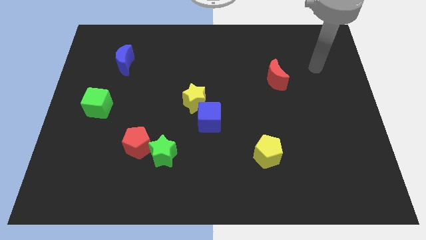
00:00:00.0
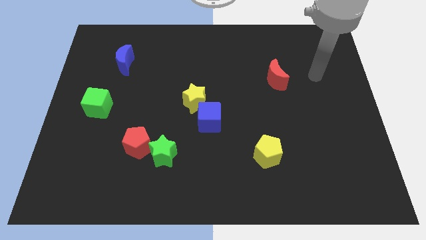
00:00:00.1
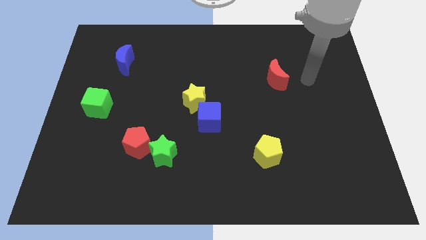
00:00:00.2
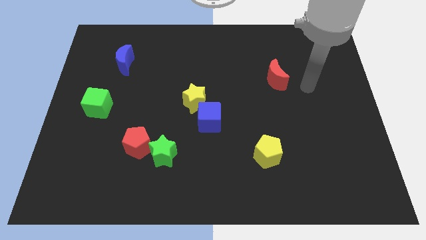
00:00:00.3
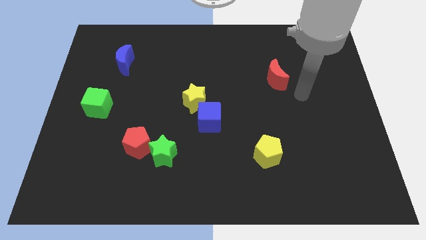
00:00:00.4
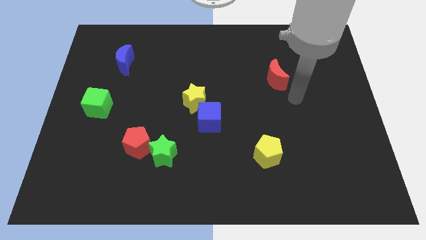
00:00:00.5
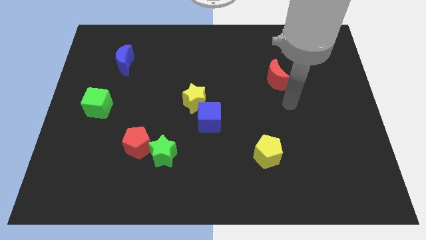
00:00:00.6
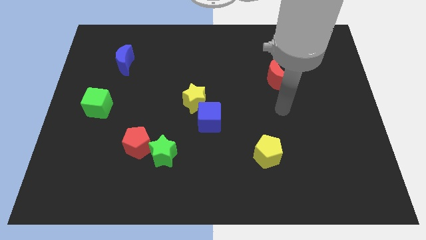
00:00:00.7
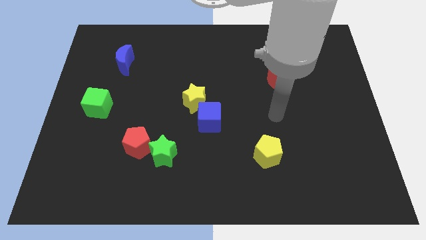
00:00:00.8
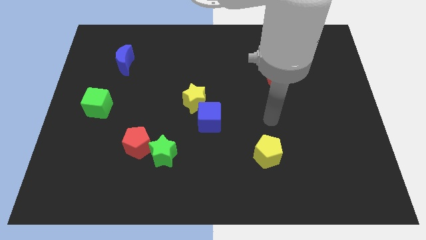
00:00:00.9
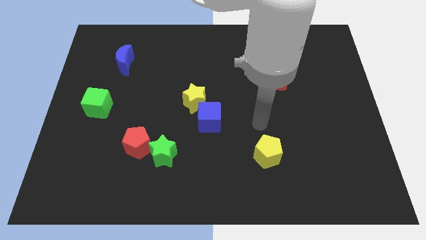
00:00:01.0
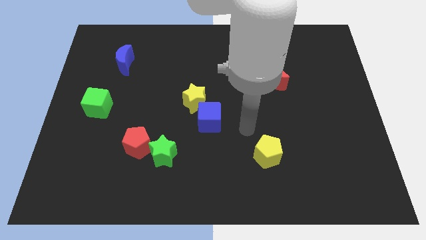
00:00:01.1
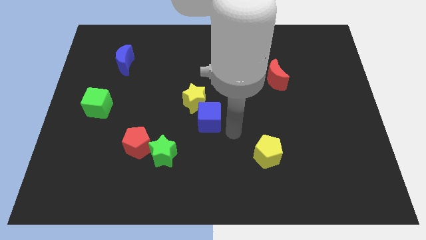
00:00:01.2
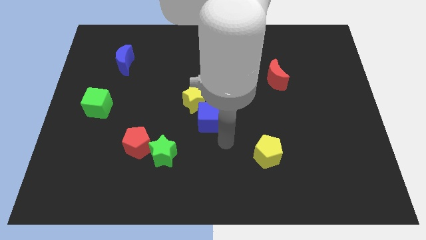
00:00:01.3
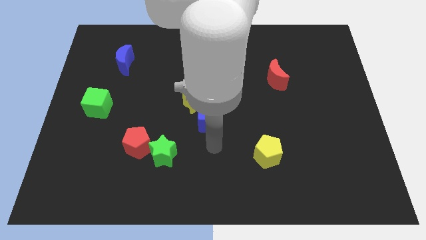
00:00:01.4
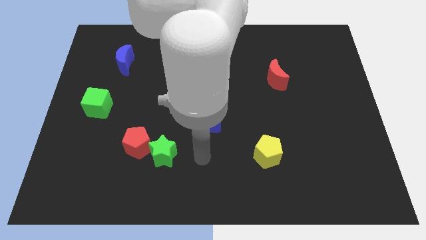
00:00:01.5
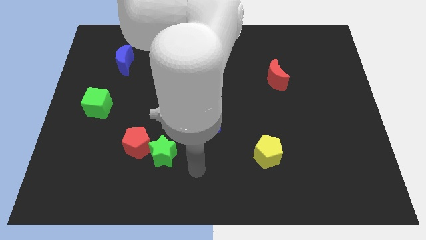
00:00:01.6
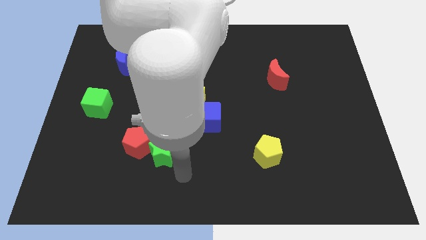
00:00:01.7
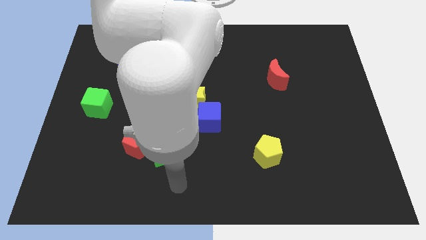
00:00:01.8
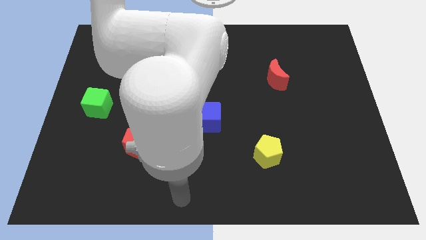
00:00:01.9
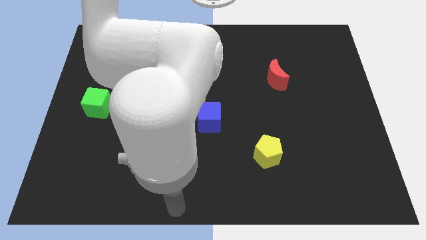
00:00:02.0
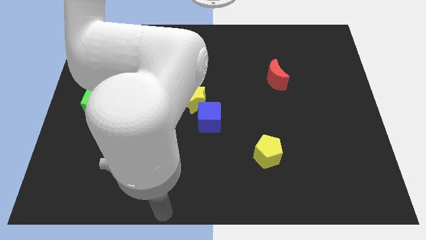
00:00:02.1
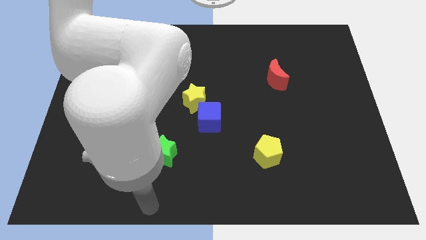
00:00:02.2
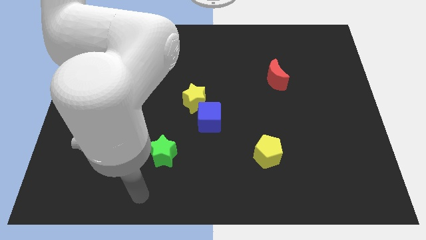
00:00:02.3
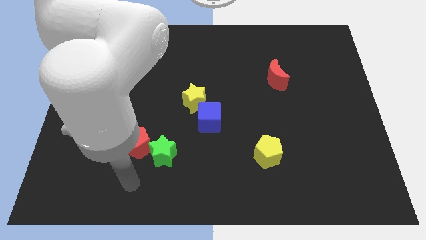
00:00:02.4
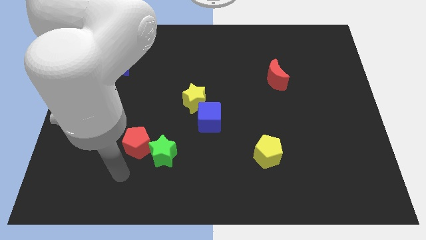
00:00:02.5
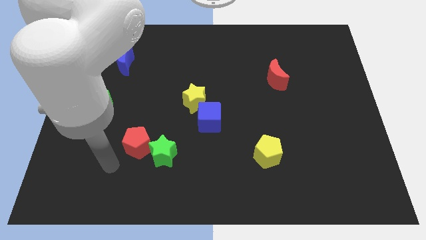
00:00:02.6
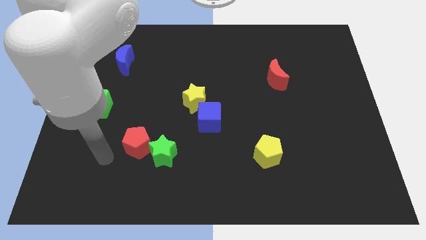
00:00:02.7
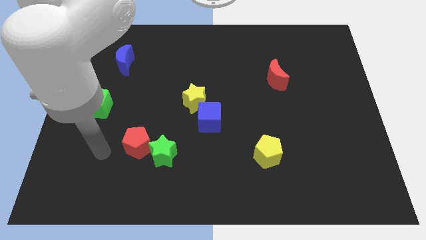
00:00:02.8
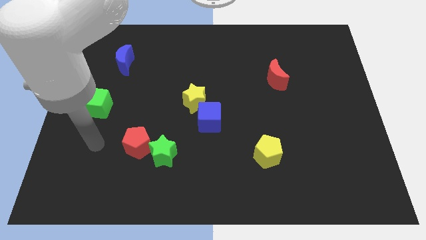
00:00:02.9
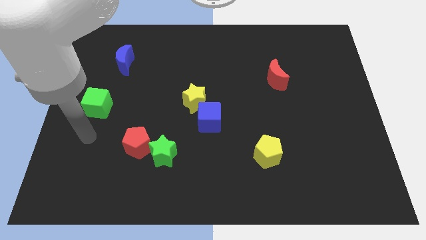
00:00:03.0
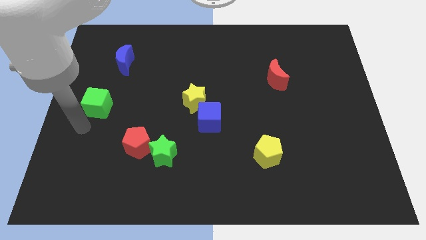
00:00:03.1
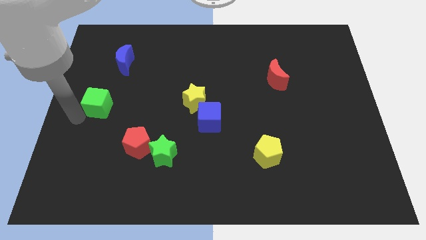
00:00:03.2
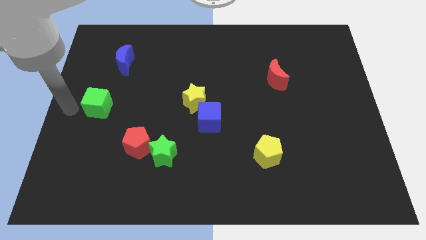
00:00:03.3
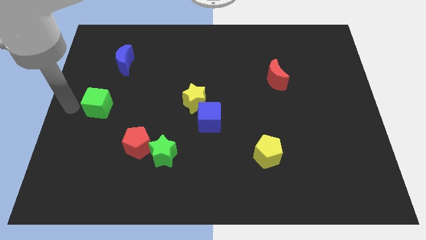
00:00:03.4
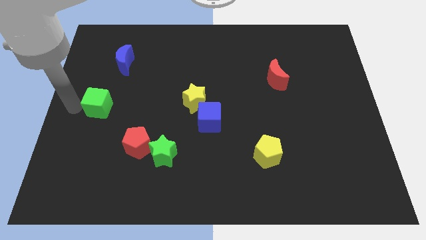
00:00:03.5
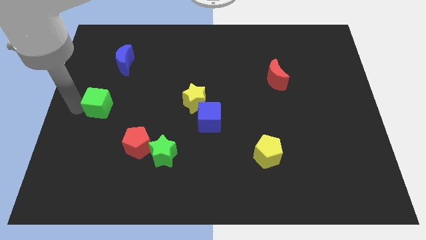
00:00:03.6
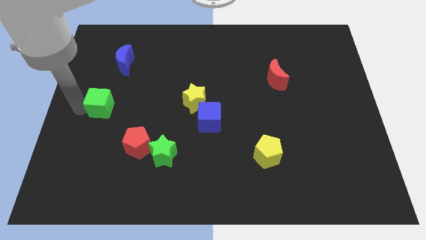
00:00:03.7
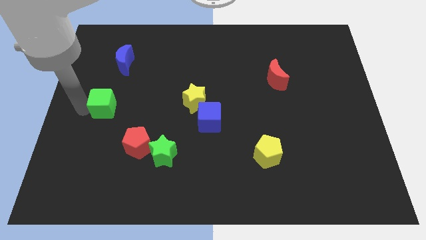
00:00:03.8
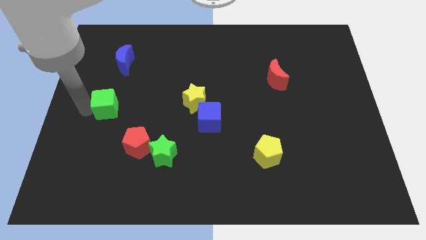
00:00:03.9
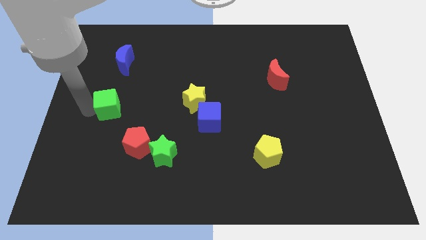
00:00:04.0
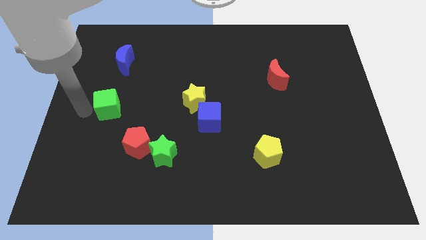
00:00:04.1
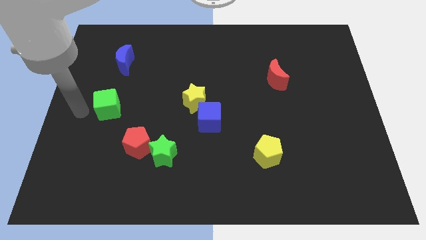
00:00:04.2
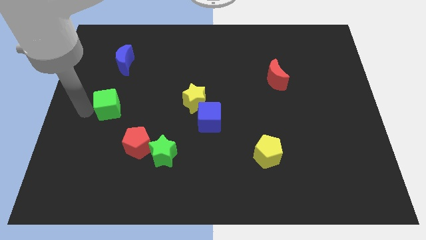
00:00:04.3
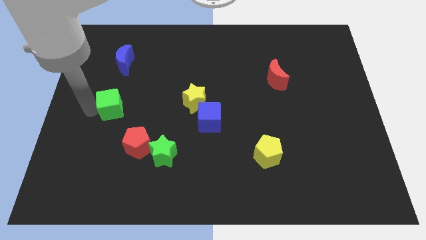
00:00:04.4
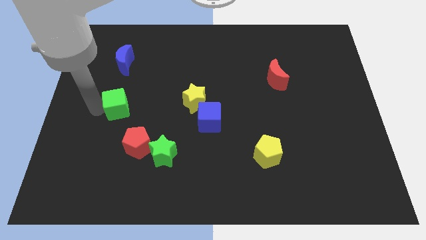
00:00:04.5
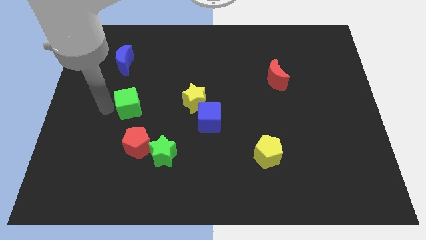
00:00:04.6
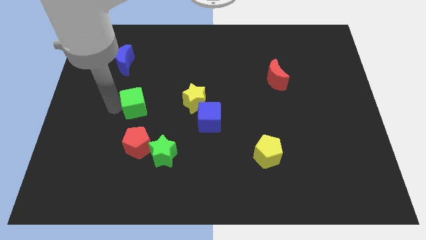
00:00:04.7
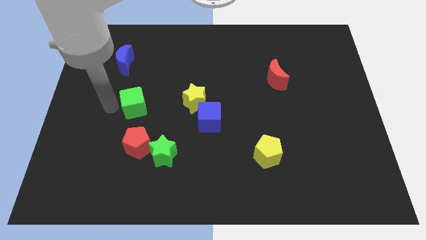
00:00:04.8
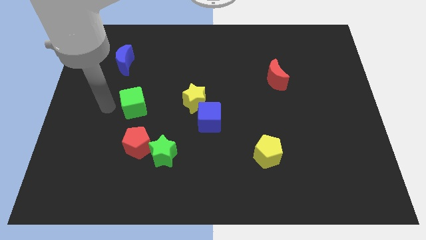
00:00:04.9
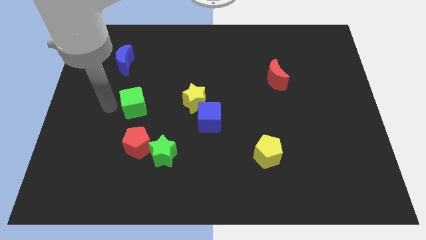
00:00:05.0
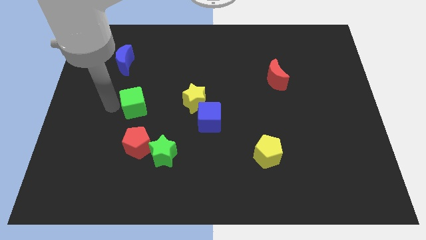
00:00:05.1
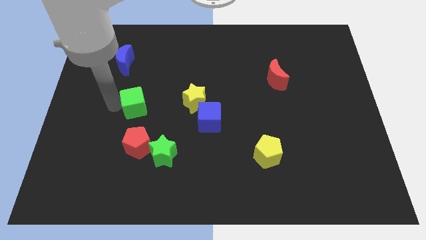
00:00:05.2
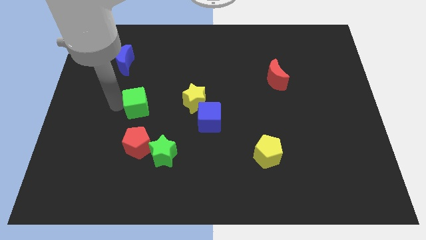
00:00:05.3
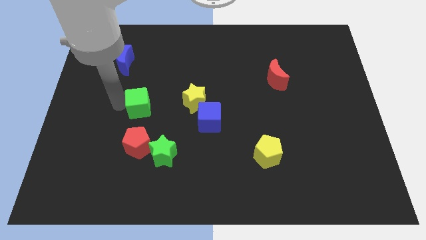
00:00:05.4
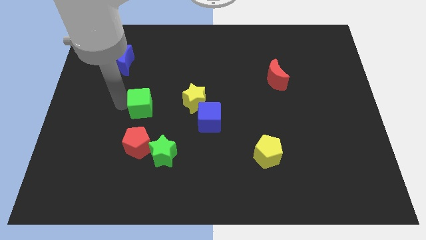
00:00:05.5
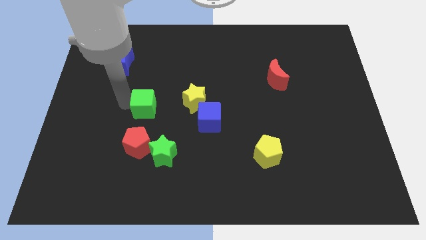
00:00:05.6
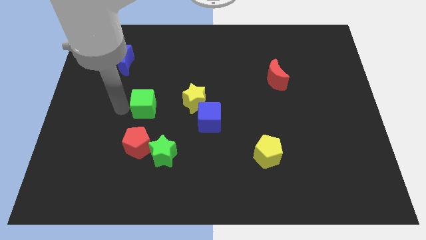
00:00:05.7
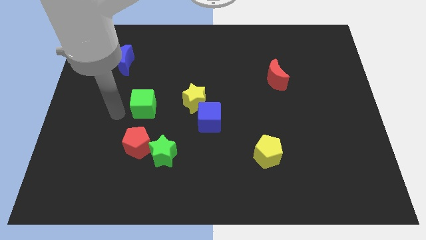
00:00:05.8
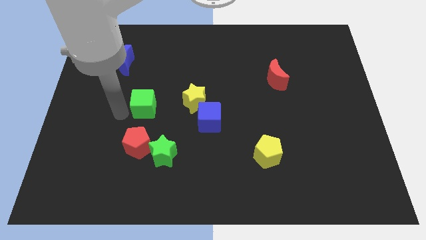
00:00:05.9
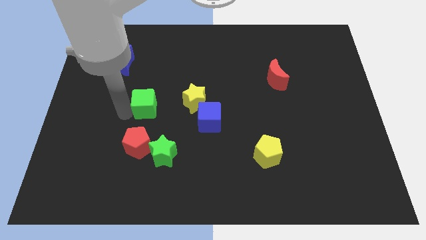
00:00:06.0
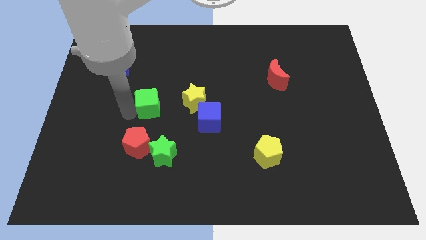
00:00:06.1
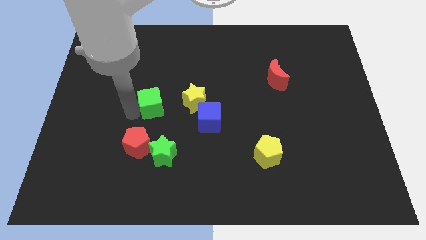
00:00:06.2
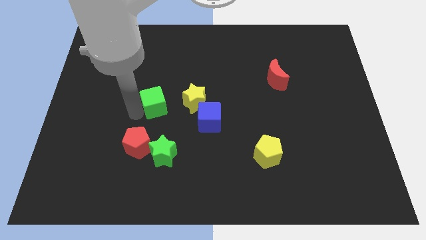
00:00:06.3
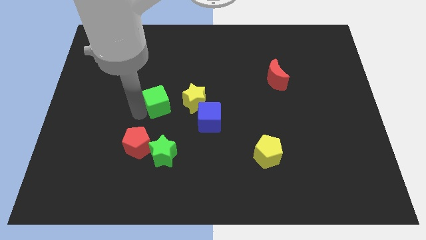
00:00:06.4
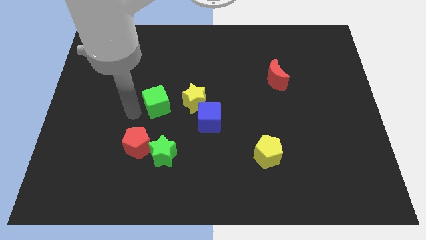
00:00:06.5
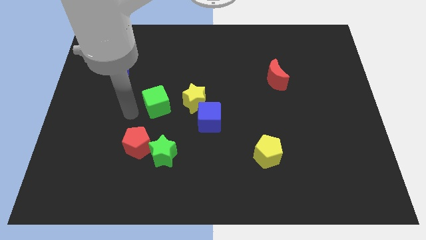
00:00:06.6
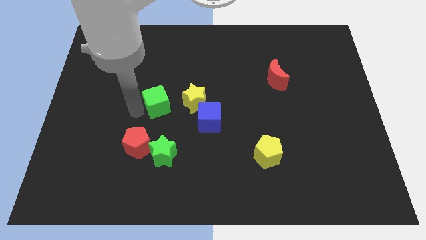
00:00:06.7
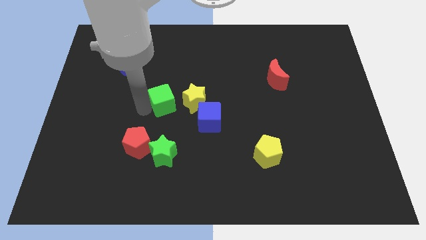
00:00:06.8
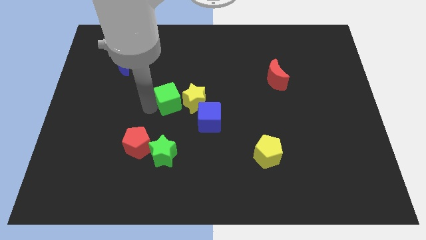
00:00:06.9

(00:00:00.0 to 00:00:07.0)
slide the green cube close to the yellow star
